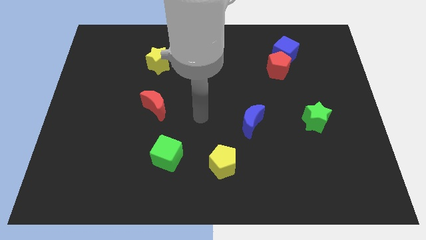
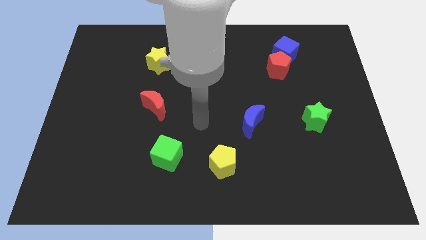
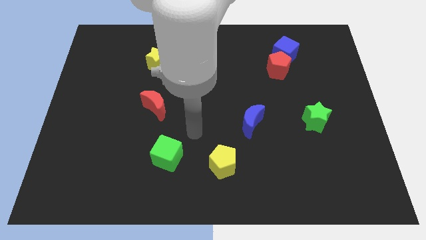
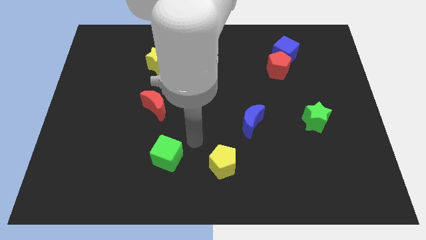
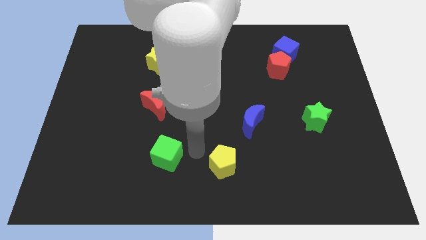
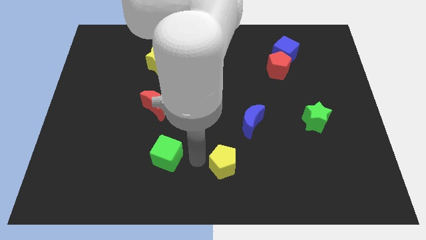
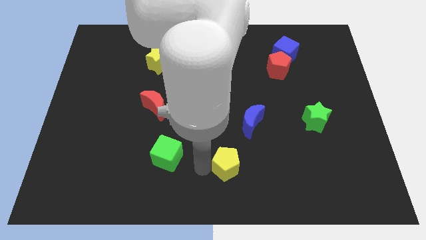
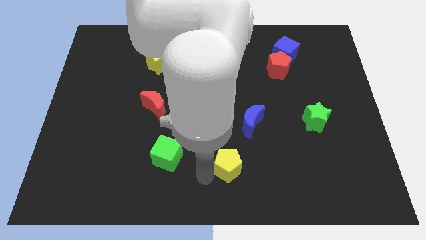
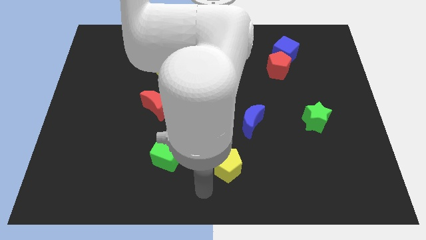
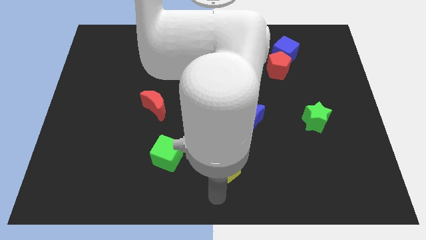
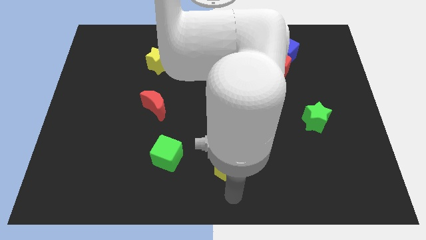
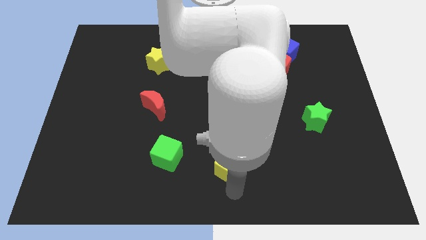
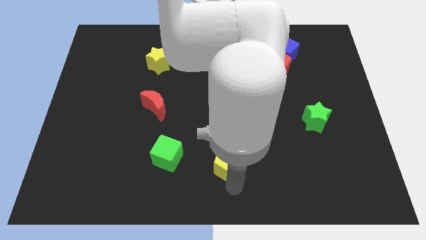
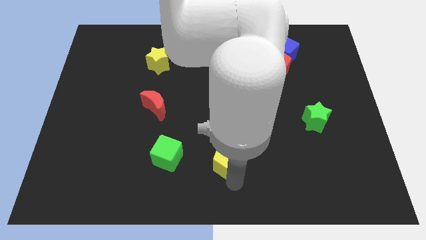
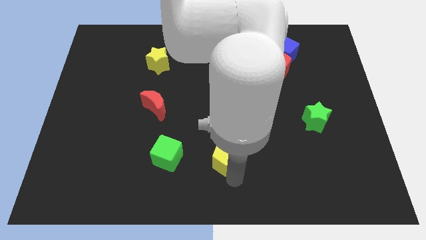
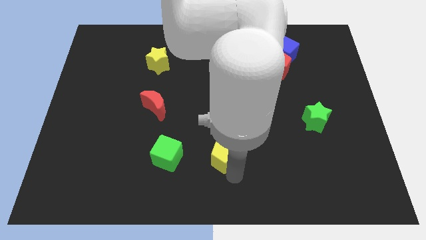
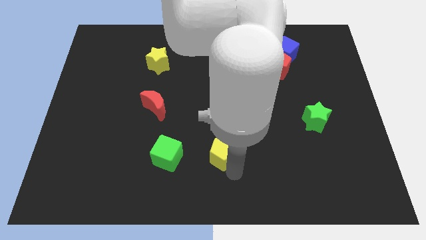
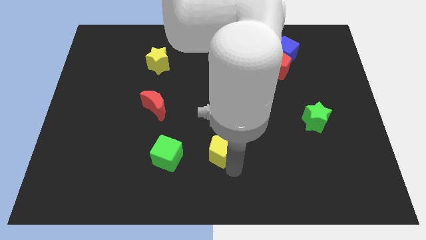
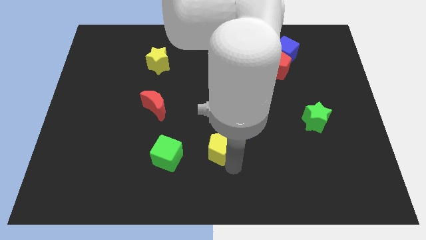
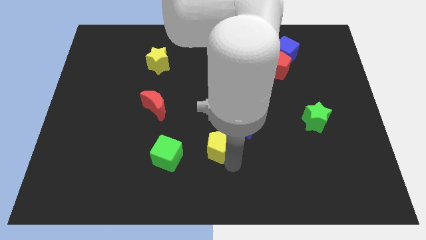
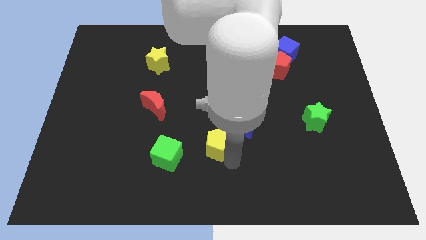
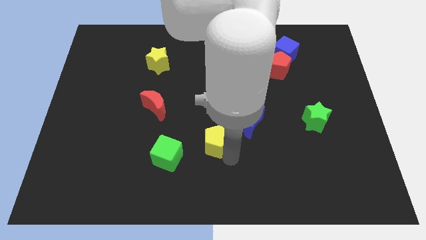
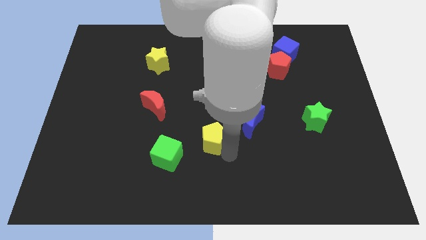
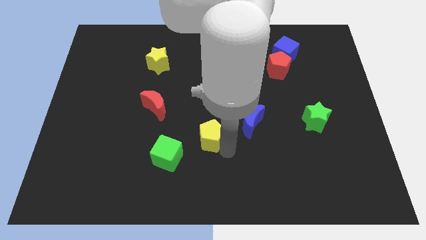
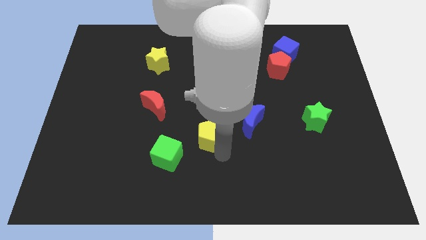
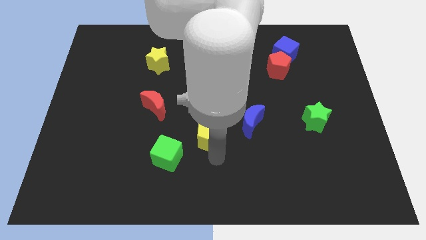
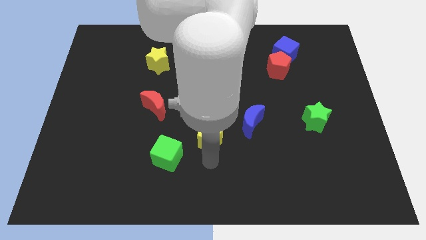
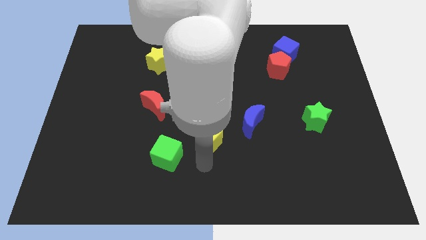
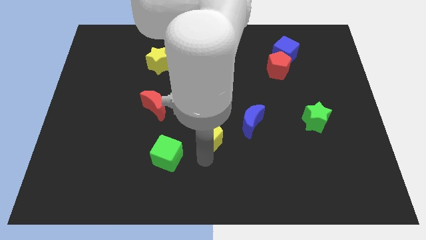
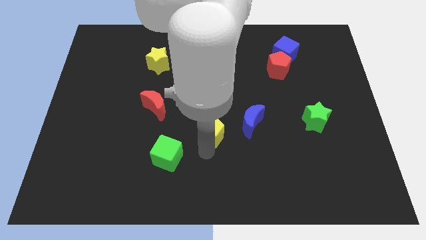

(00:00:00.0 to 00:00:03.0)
slide the yellow pentagon slightly upwards

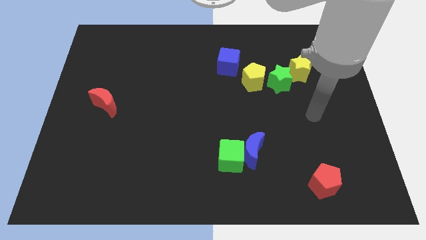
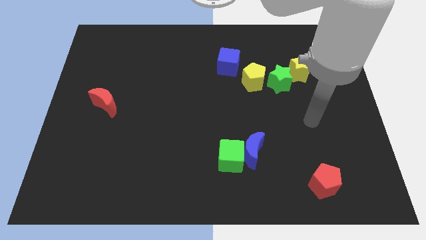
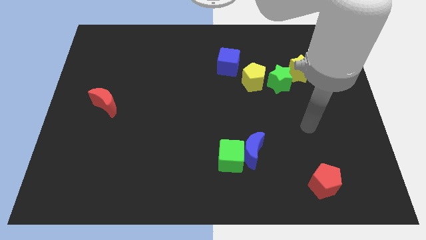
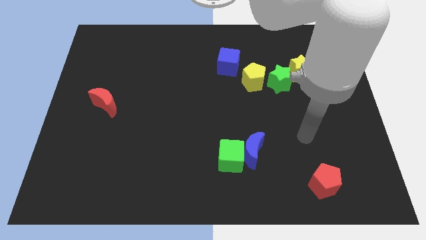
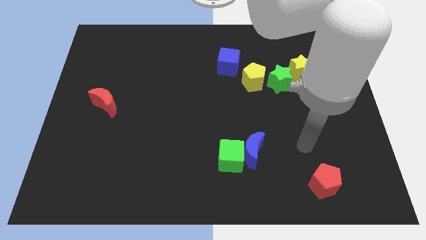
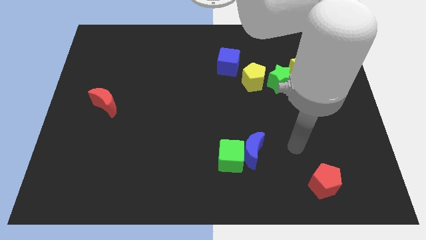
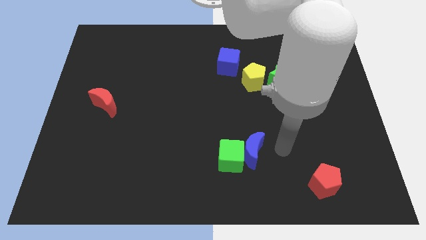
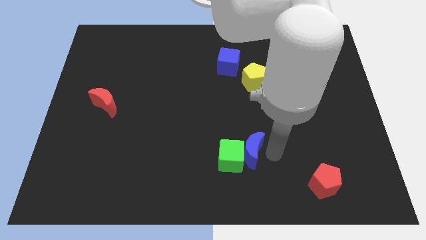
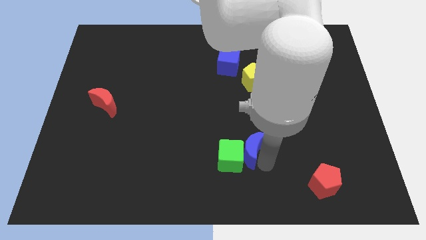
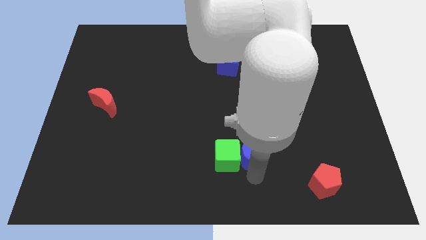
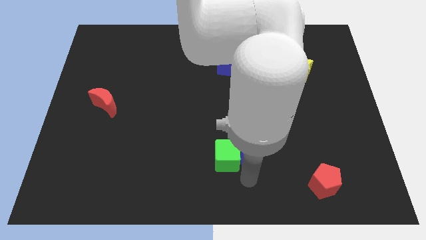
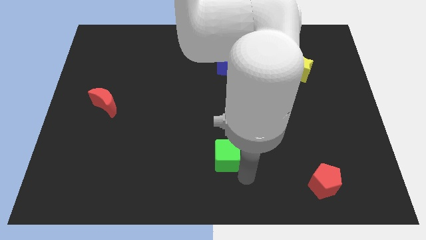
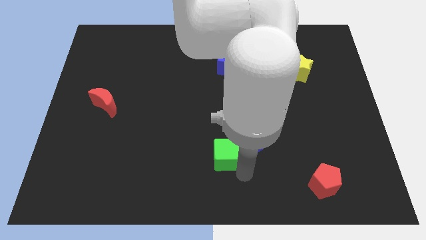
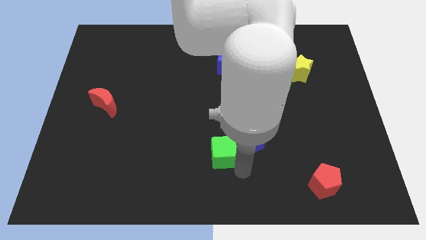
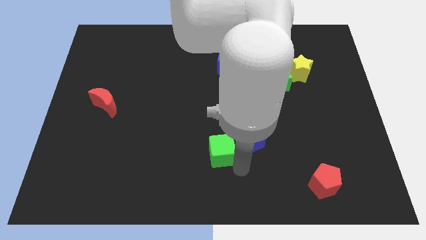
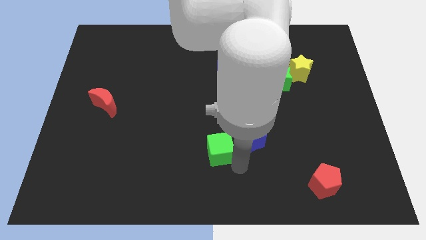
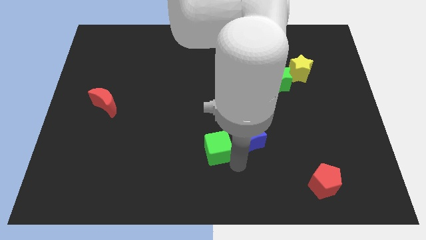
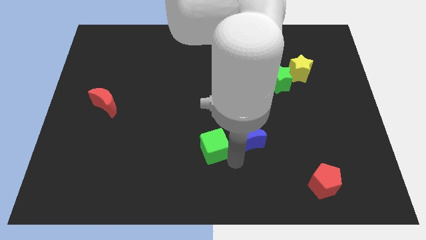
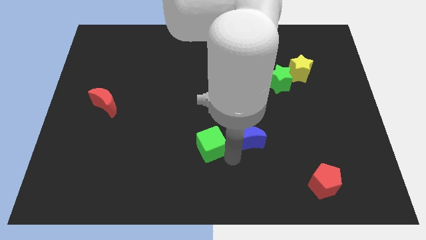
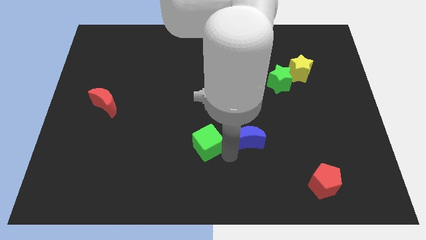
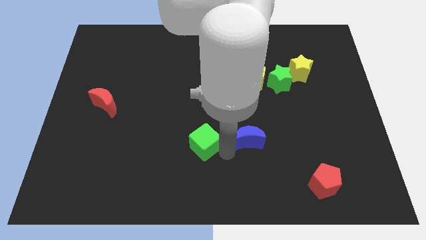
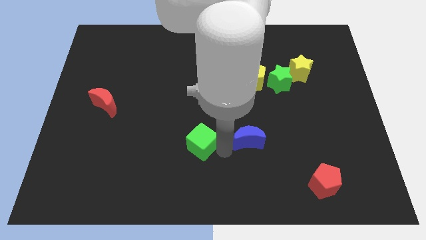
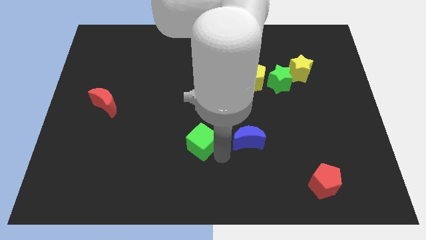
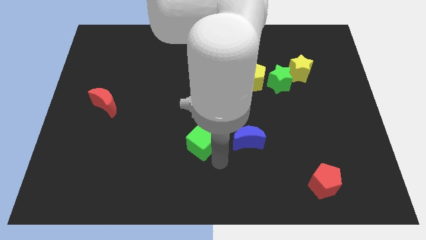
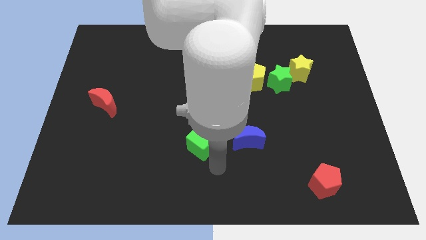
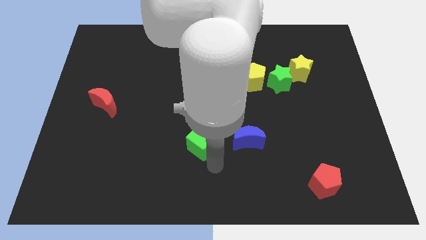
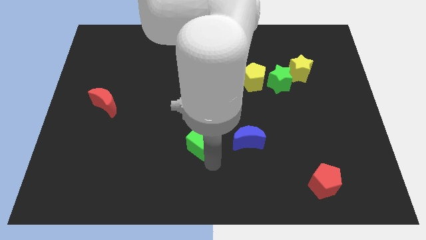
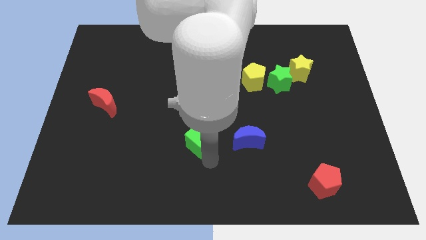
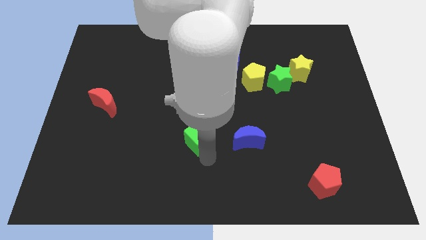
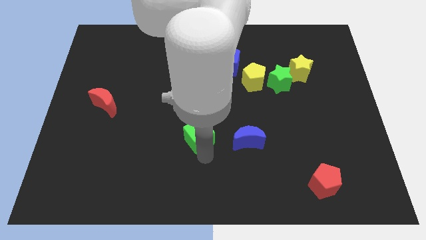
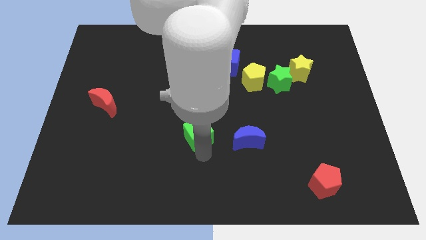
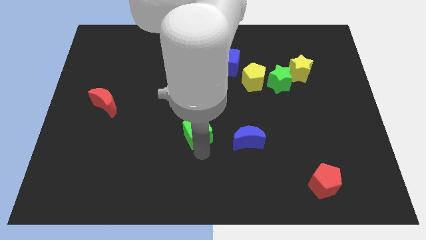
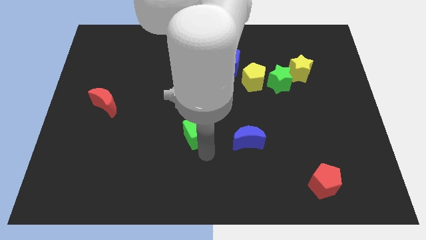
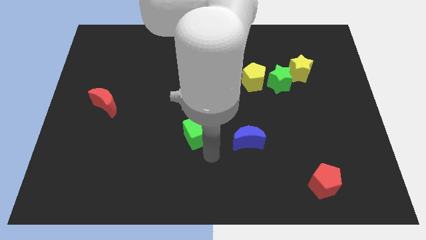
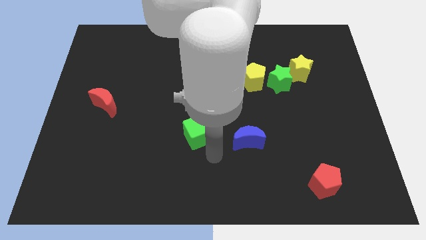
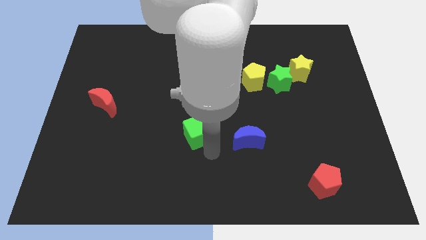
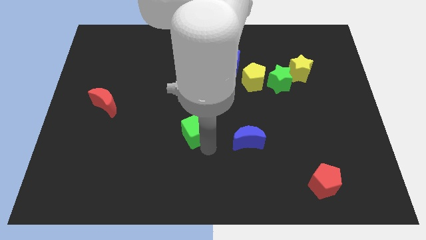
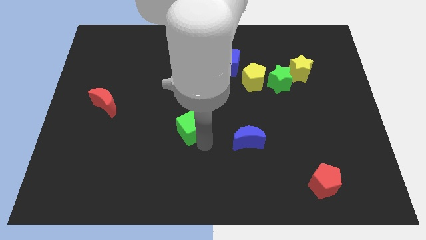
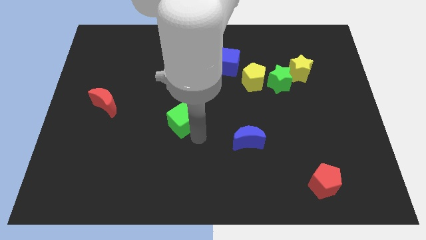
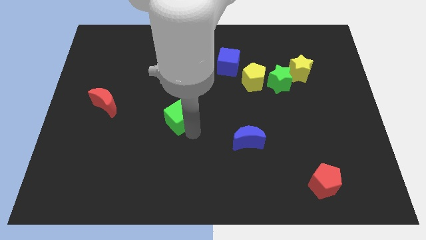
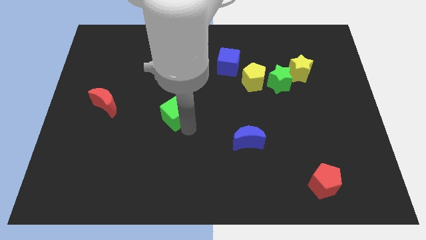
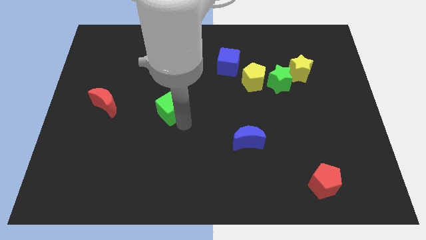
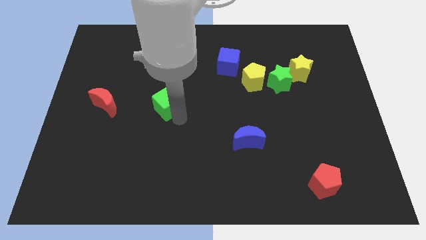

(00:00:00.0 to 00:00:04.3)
push the green cube up and then left

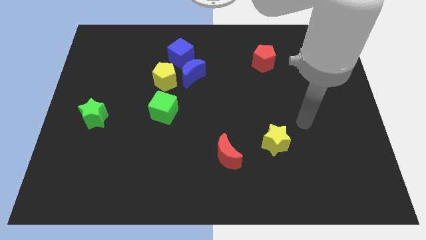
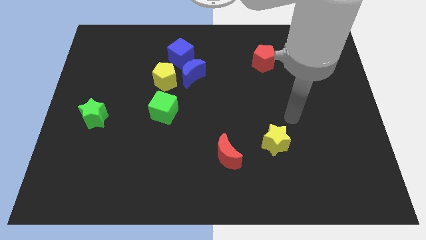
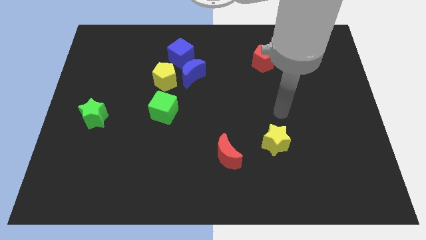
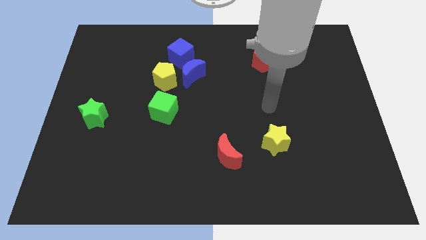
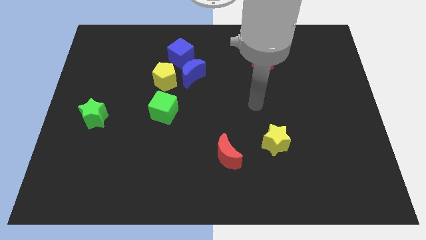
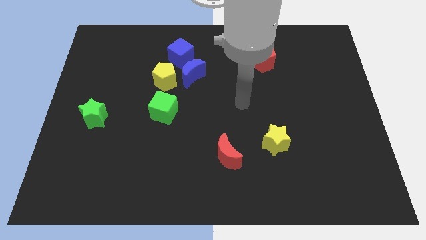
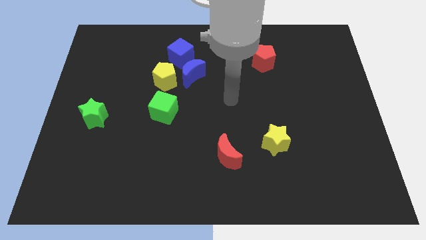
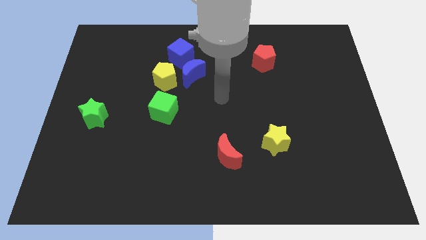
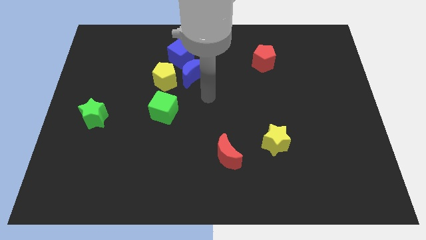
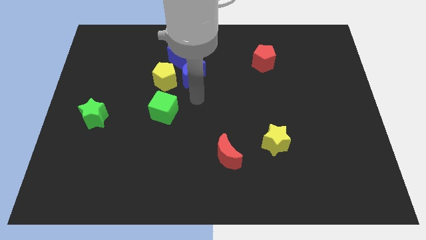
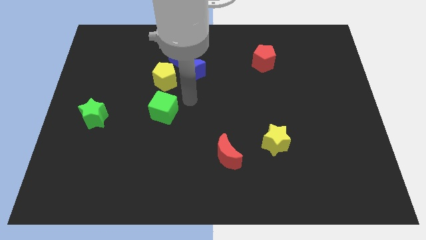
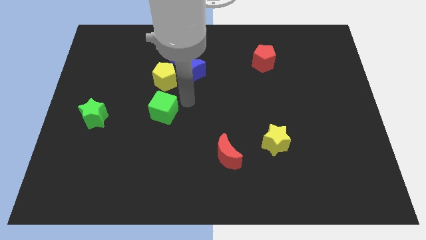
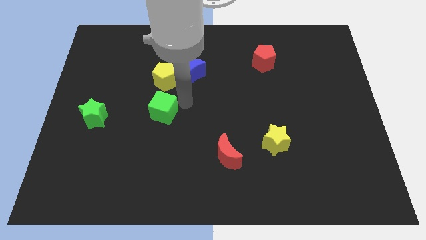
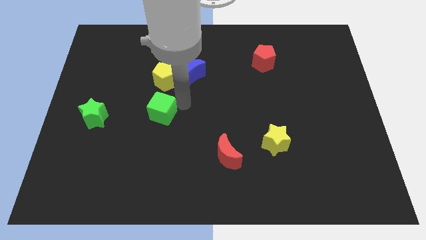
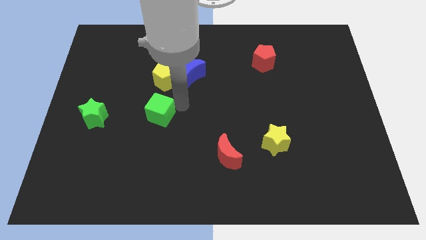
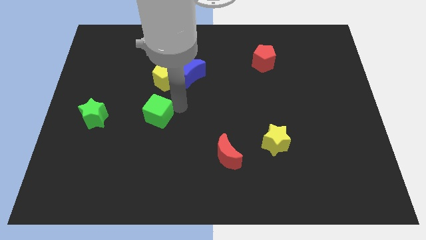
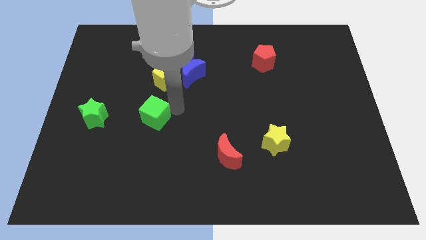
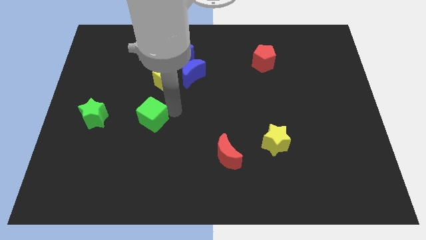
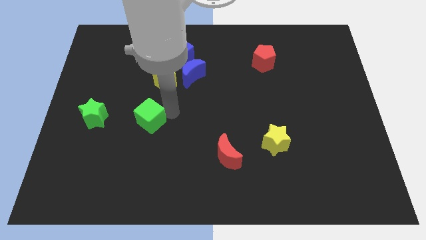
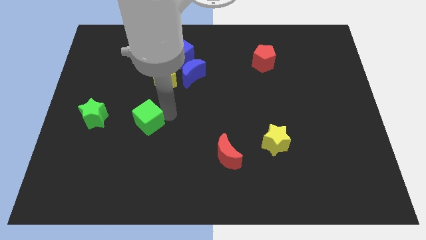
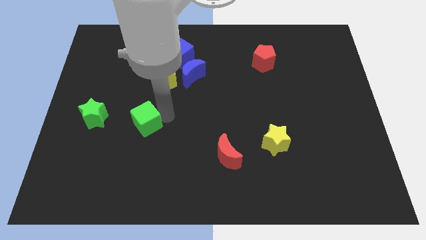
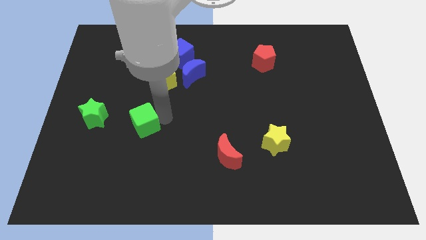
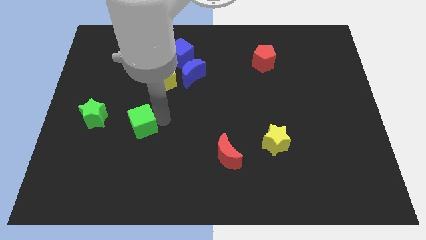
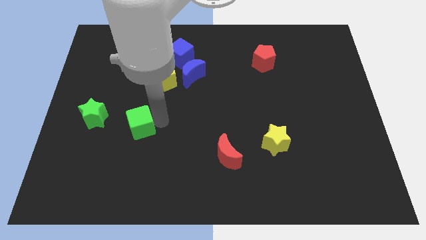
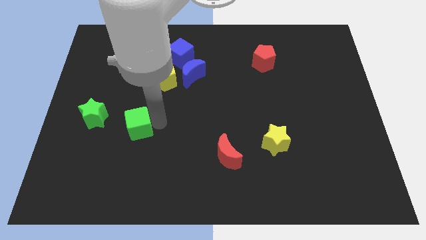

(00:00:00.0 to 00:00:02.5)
slightly push the green cube down and to the left diagonally
